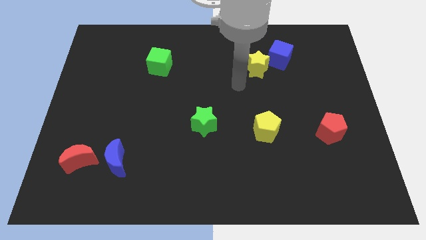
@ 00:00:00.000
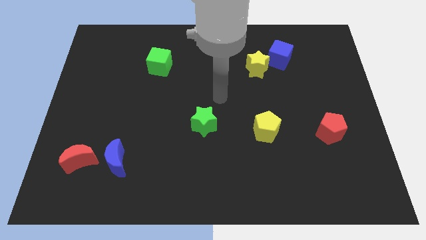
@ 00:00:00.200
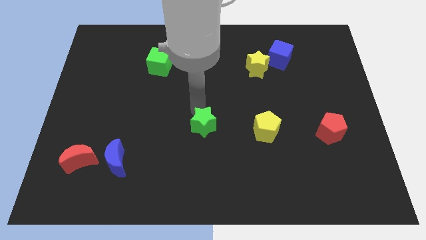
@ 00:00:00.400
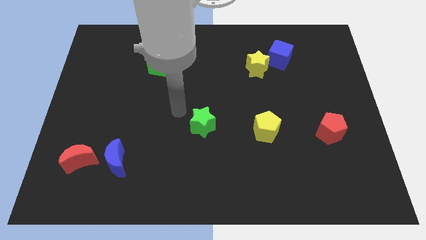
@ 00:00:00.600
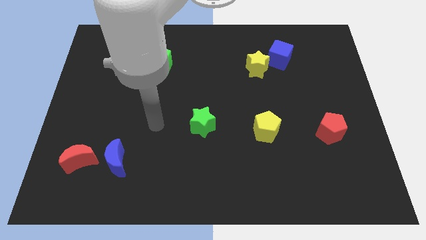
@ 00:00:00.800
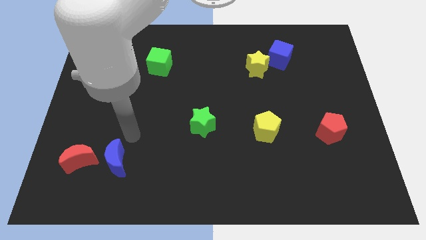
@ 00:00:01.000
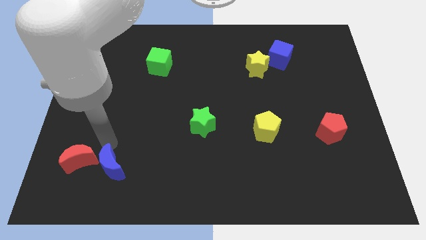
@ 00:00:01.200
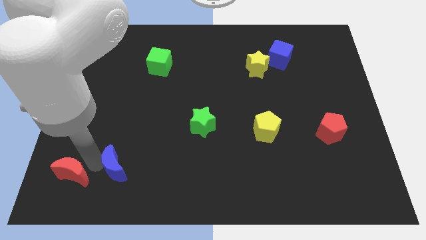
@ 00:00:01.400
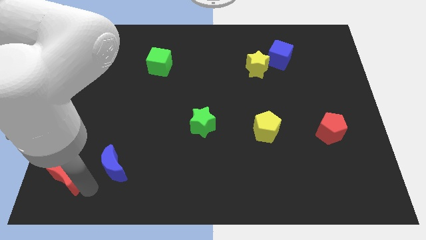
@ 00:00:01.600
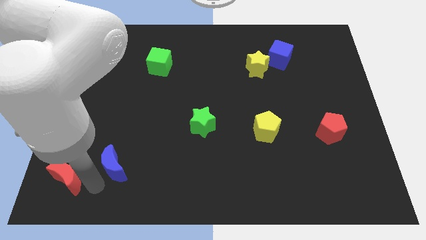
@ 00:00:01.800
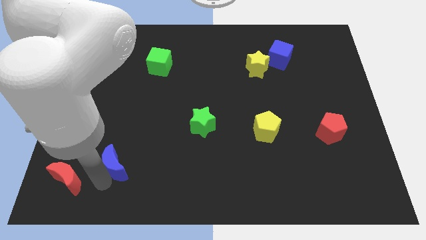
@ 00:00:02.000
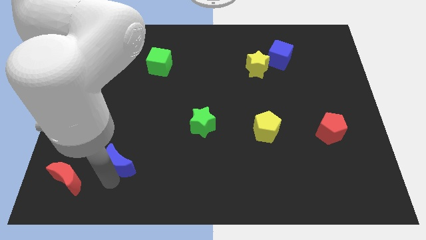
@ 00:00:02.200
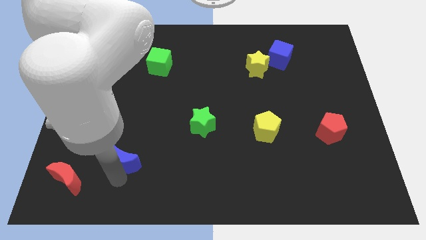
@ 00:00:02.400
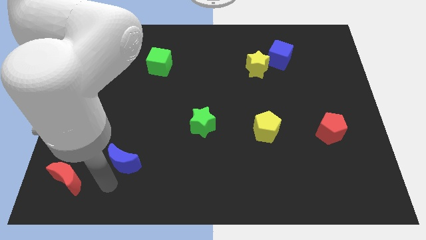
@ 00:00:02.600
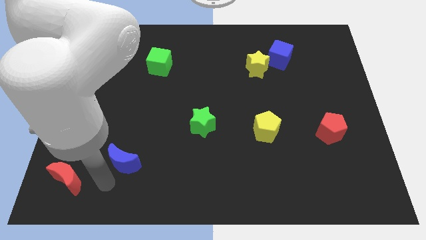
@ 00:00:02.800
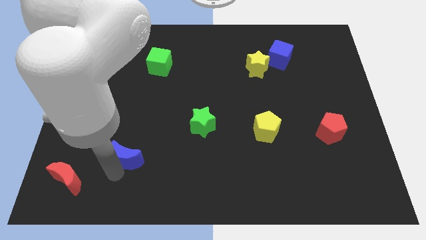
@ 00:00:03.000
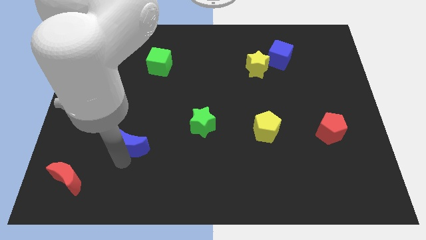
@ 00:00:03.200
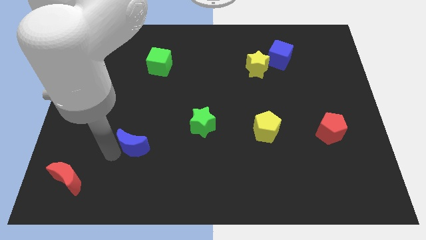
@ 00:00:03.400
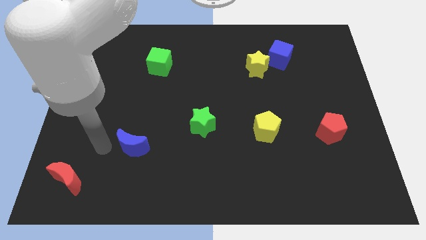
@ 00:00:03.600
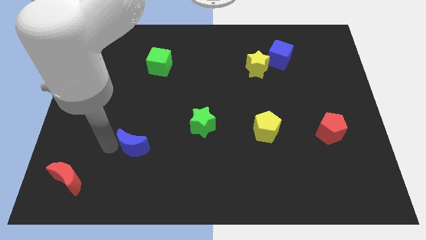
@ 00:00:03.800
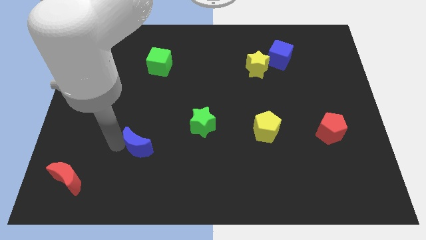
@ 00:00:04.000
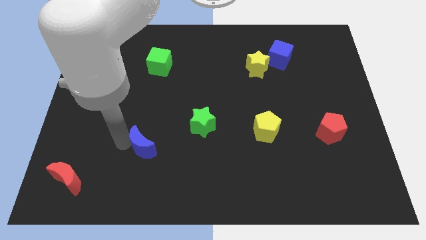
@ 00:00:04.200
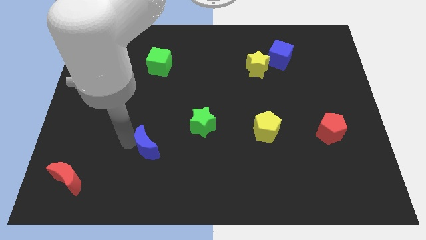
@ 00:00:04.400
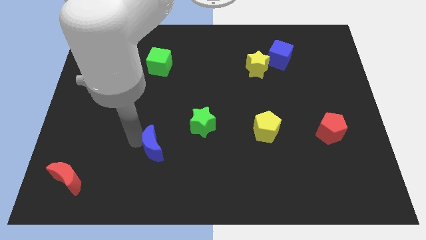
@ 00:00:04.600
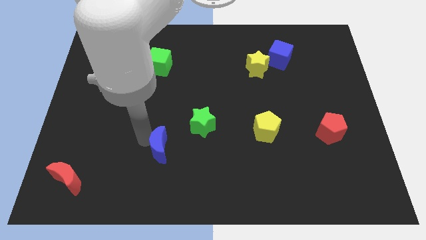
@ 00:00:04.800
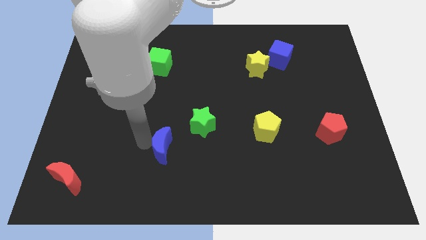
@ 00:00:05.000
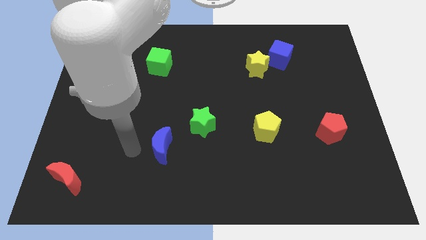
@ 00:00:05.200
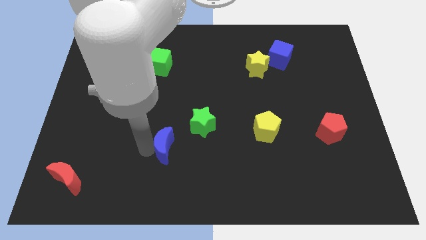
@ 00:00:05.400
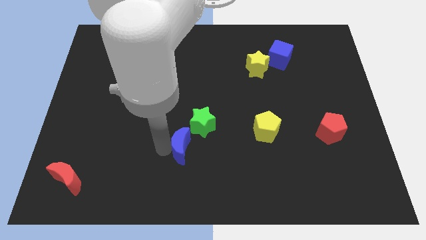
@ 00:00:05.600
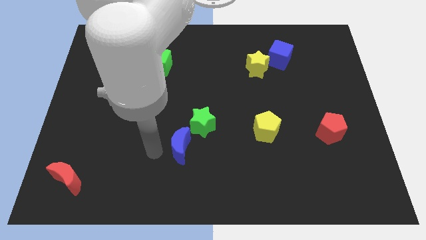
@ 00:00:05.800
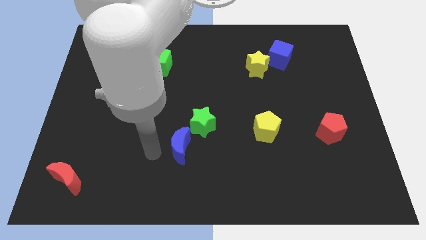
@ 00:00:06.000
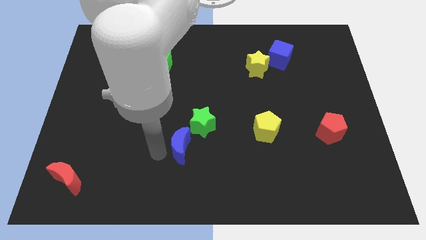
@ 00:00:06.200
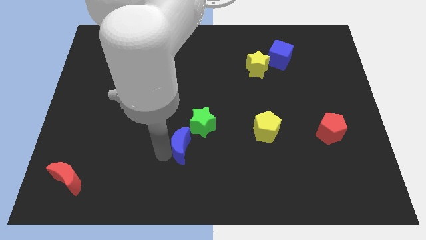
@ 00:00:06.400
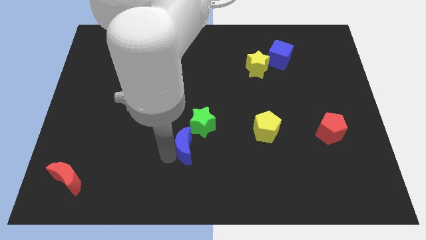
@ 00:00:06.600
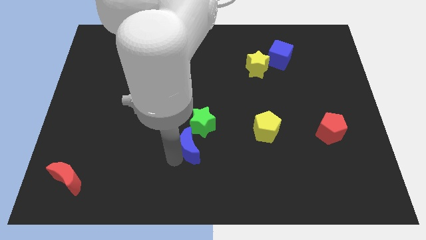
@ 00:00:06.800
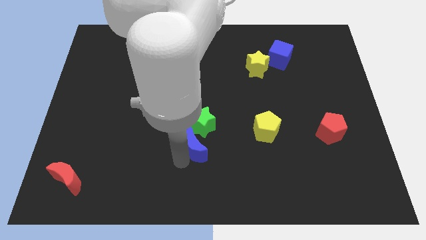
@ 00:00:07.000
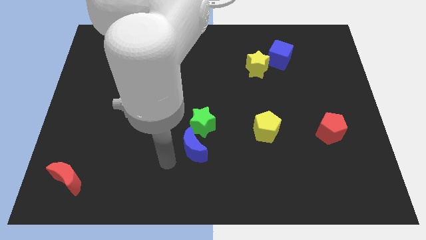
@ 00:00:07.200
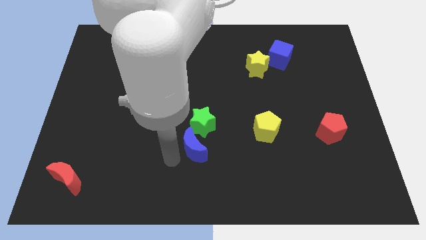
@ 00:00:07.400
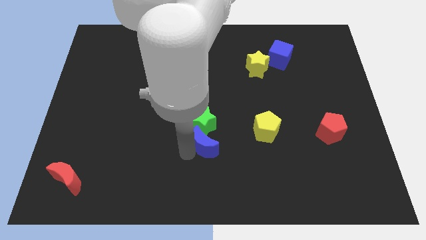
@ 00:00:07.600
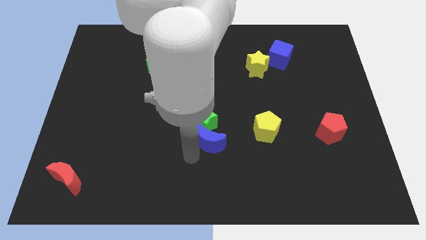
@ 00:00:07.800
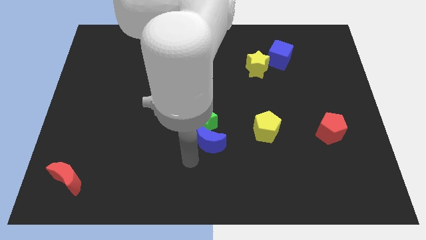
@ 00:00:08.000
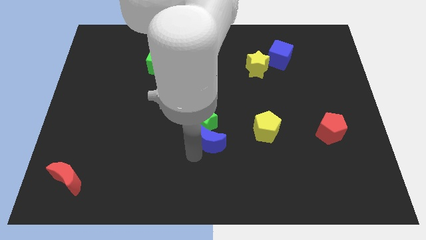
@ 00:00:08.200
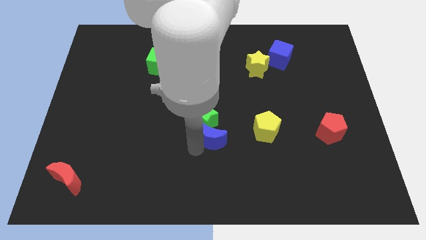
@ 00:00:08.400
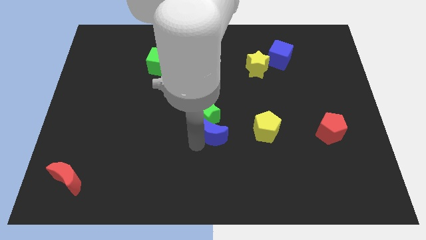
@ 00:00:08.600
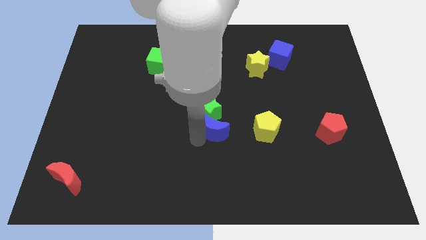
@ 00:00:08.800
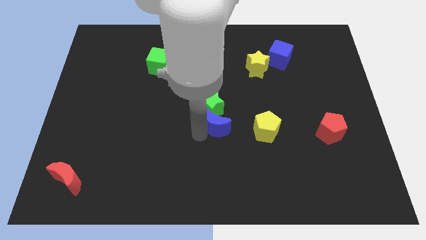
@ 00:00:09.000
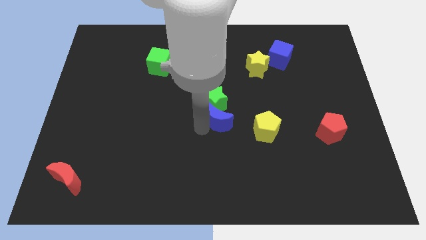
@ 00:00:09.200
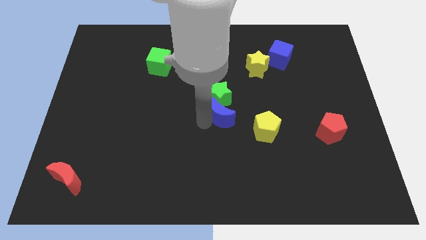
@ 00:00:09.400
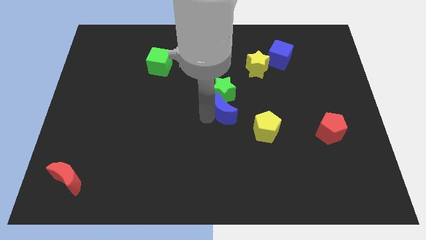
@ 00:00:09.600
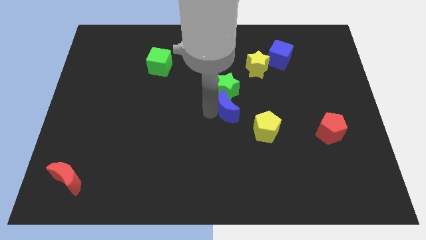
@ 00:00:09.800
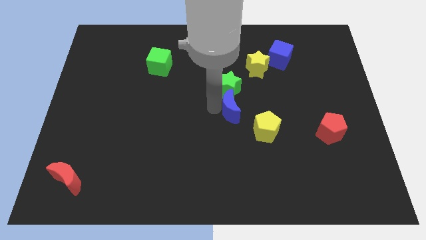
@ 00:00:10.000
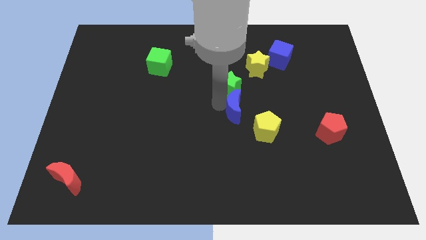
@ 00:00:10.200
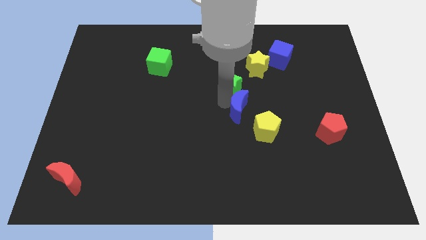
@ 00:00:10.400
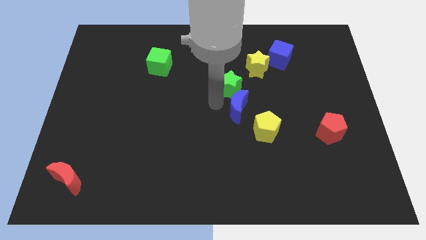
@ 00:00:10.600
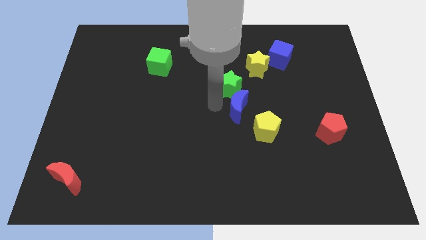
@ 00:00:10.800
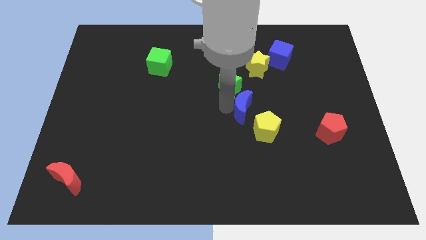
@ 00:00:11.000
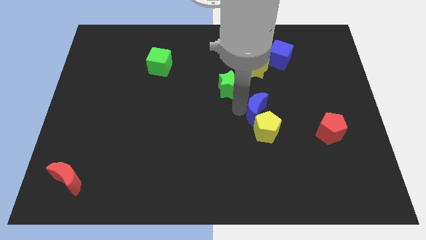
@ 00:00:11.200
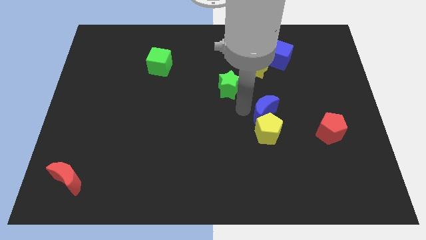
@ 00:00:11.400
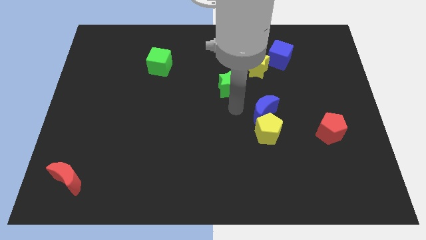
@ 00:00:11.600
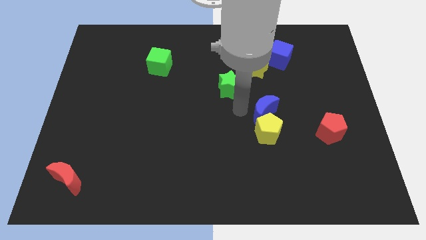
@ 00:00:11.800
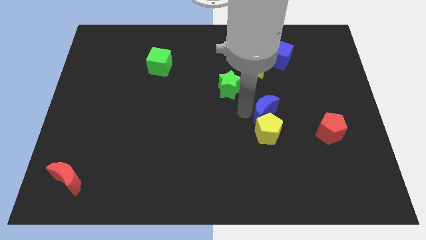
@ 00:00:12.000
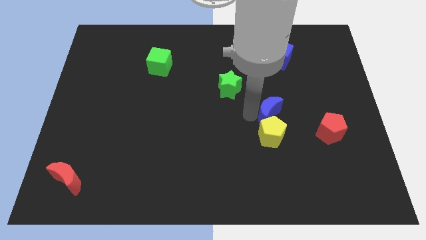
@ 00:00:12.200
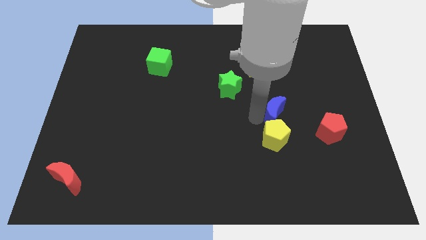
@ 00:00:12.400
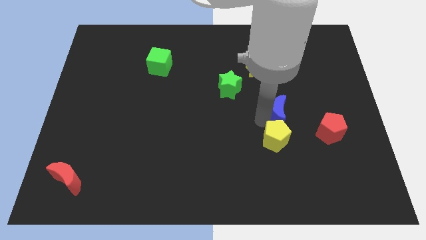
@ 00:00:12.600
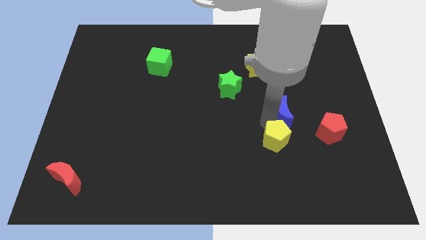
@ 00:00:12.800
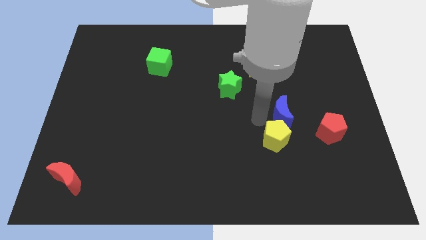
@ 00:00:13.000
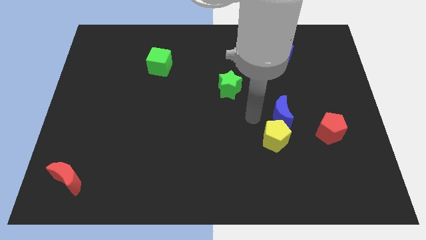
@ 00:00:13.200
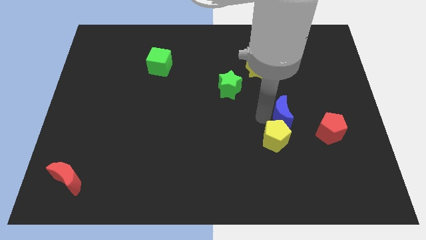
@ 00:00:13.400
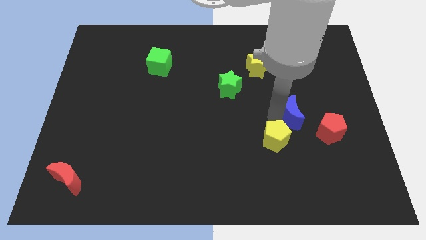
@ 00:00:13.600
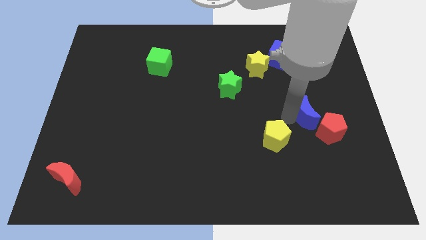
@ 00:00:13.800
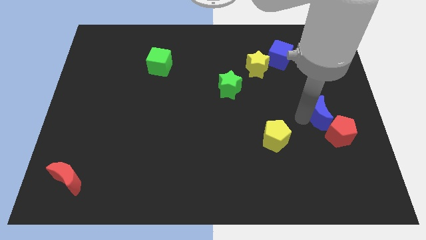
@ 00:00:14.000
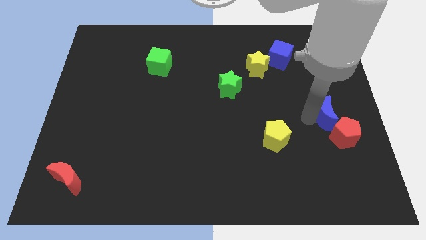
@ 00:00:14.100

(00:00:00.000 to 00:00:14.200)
slide the blue moon to the right side
